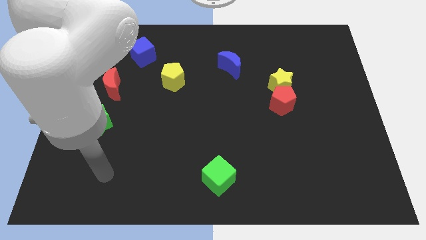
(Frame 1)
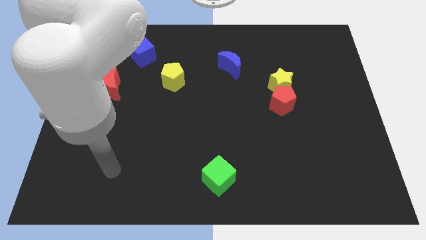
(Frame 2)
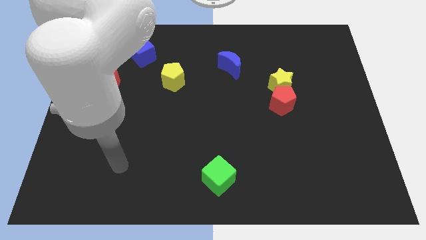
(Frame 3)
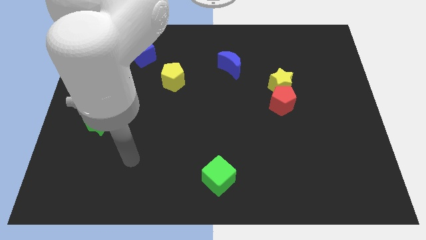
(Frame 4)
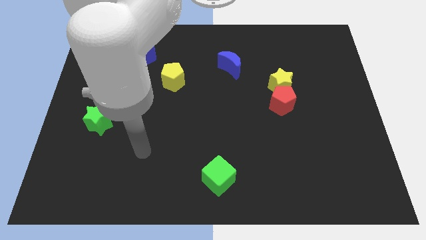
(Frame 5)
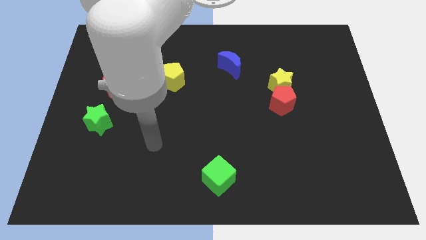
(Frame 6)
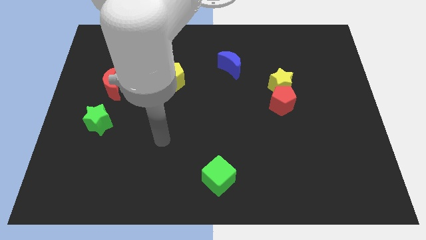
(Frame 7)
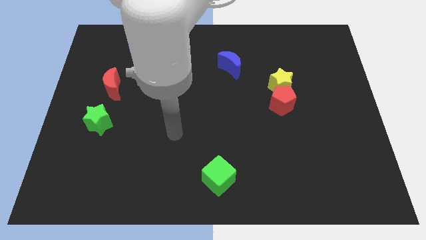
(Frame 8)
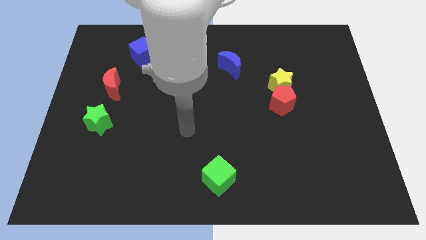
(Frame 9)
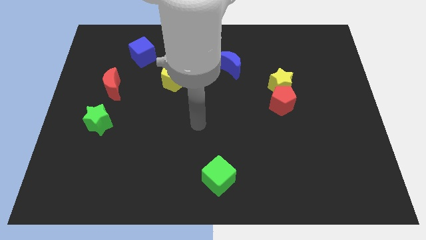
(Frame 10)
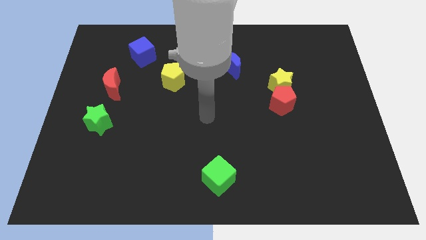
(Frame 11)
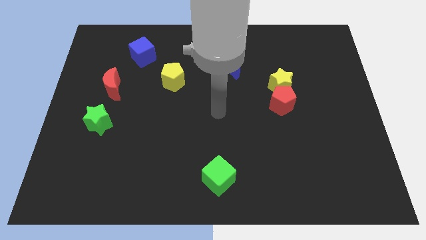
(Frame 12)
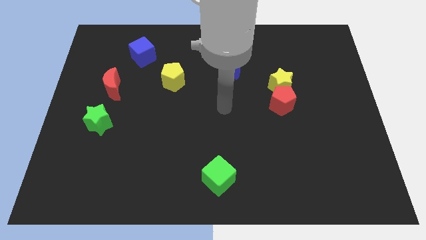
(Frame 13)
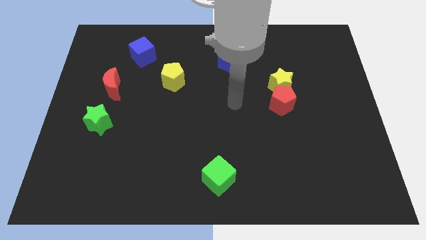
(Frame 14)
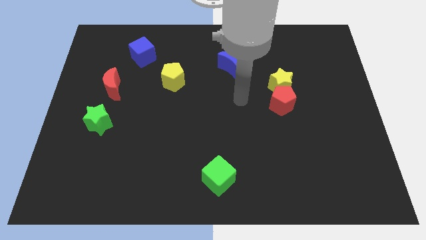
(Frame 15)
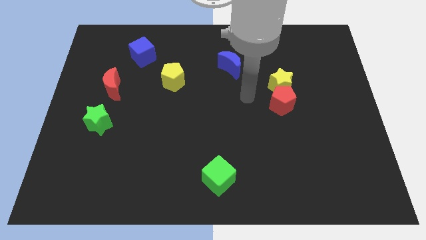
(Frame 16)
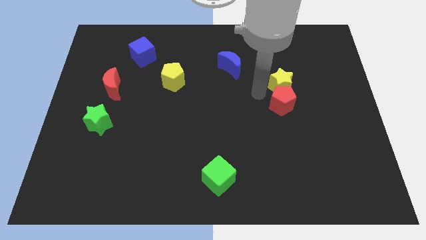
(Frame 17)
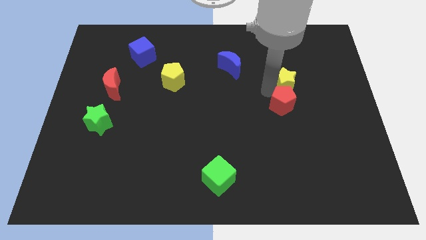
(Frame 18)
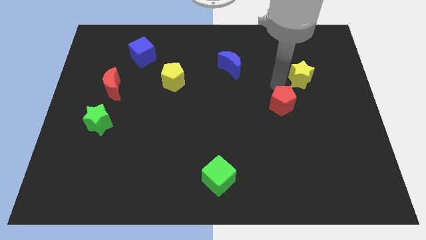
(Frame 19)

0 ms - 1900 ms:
move the red pentagon away from the yellow star

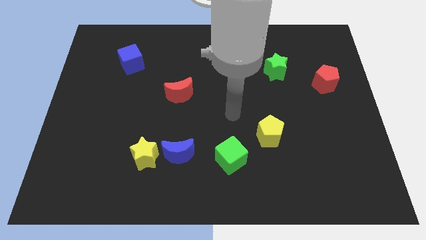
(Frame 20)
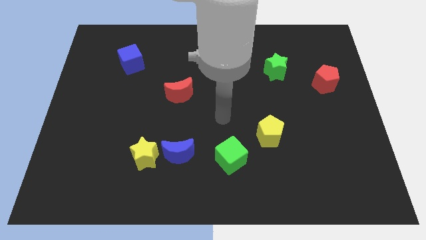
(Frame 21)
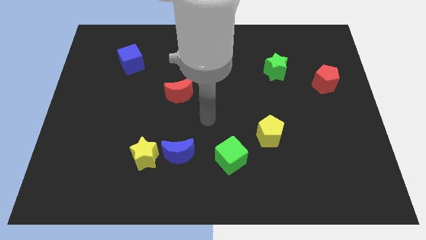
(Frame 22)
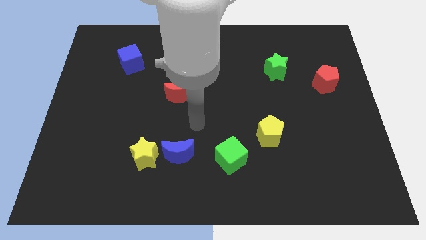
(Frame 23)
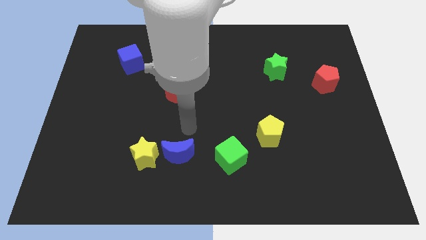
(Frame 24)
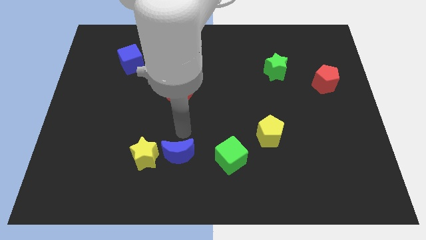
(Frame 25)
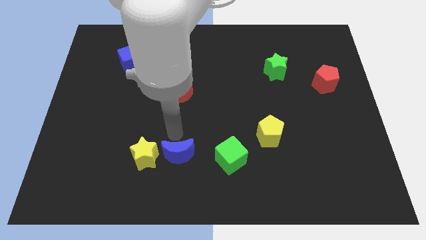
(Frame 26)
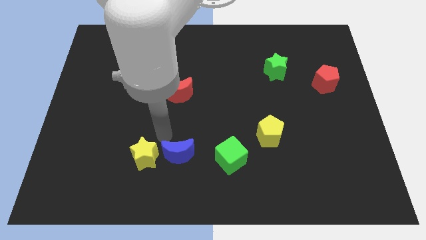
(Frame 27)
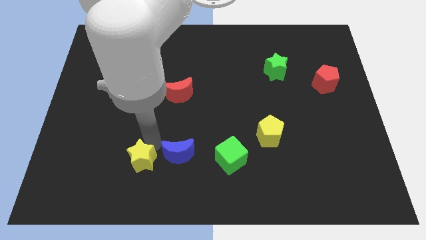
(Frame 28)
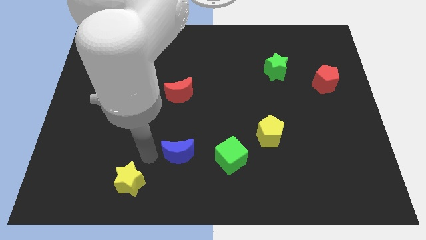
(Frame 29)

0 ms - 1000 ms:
pull the blue moon apart from the yellow star

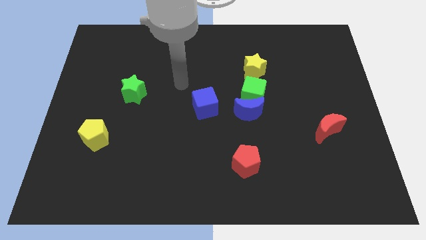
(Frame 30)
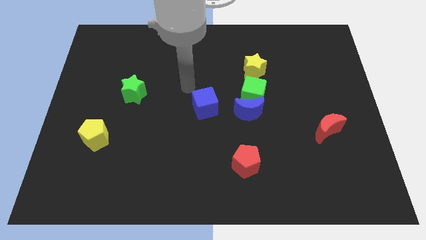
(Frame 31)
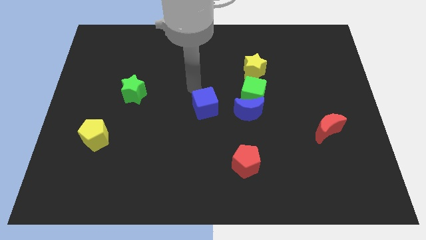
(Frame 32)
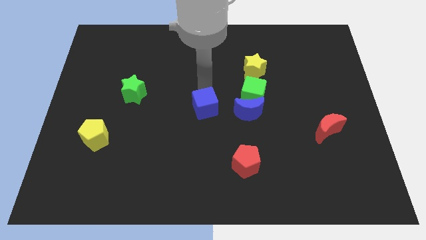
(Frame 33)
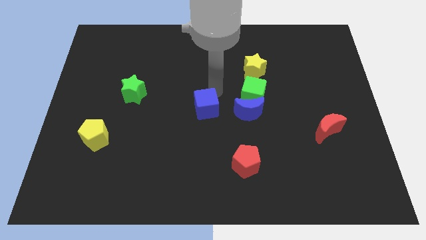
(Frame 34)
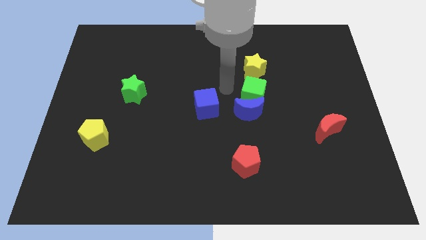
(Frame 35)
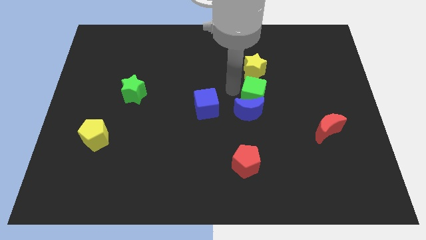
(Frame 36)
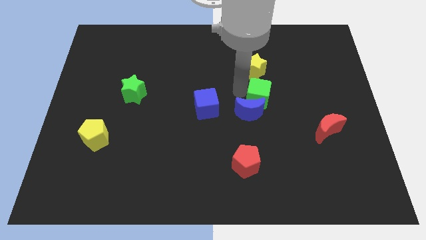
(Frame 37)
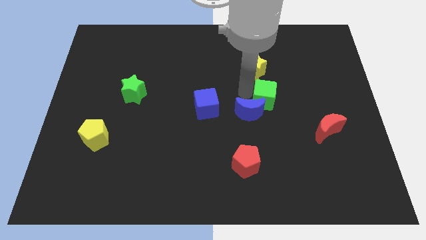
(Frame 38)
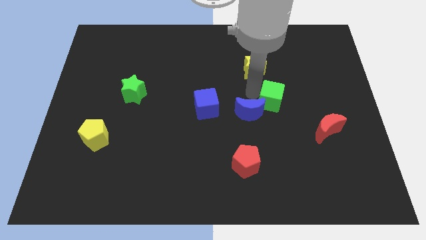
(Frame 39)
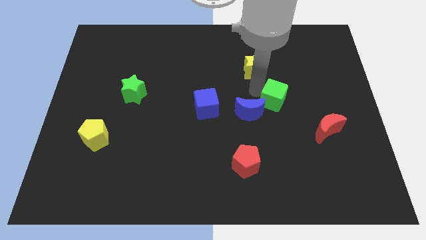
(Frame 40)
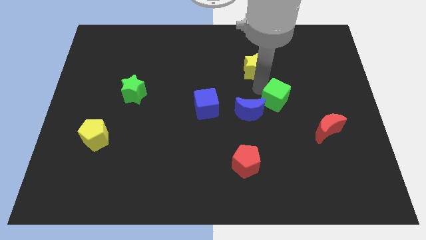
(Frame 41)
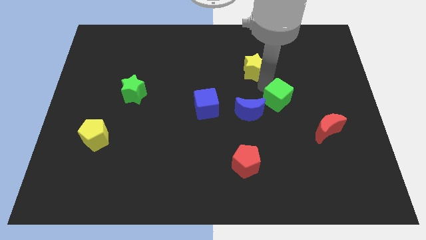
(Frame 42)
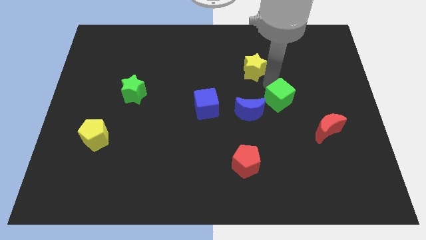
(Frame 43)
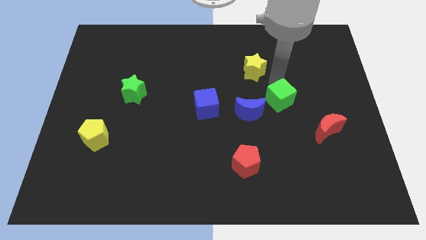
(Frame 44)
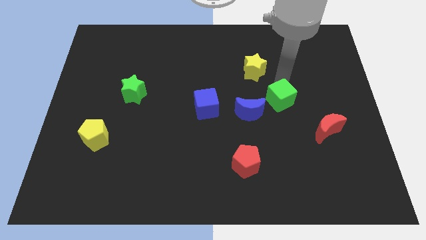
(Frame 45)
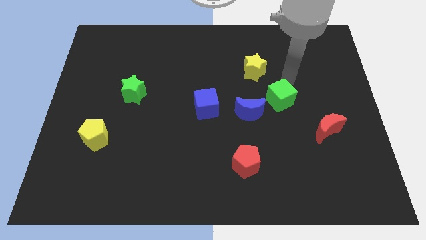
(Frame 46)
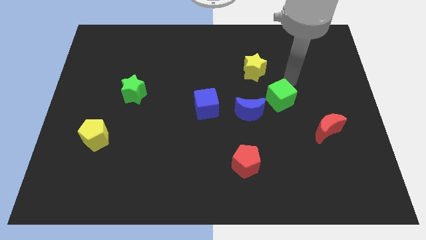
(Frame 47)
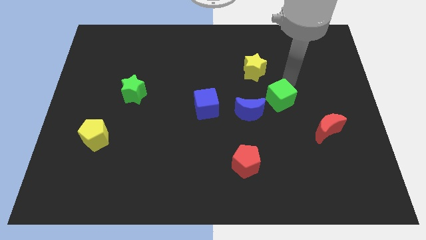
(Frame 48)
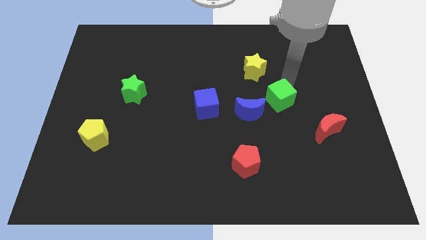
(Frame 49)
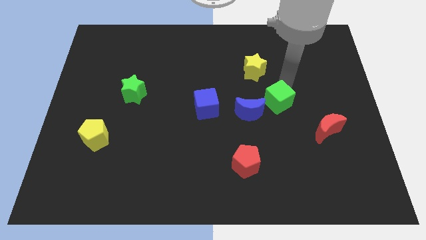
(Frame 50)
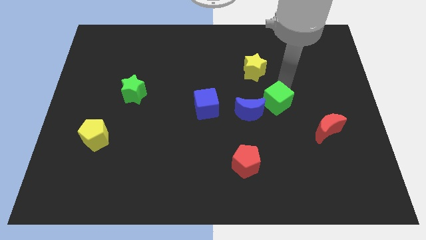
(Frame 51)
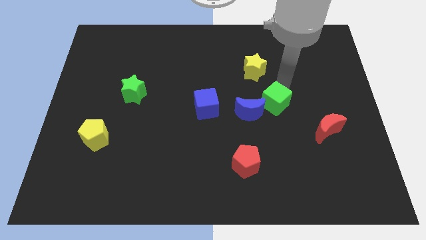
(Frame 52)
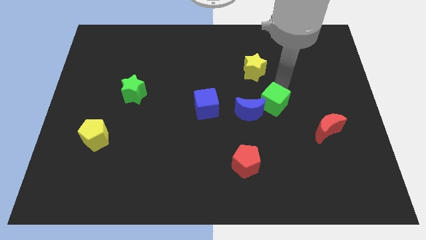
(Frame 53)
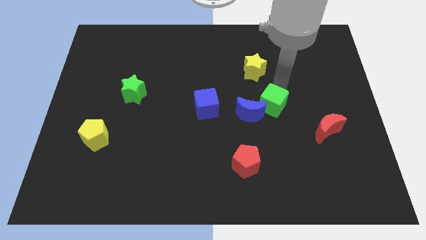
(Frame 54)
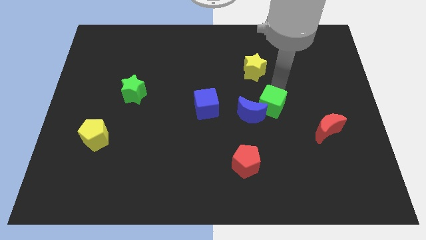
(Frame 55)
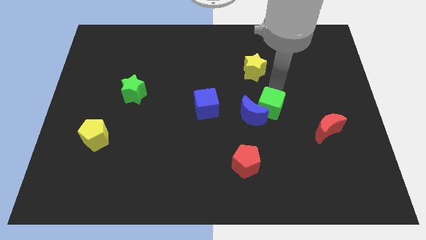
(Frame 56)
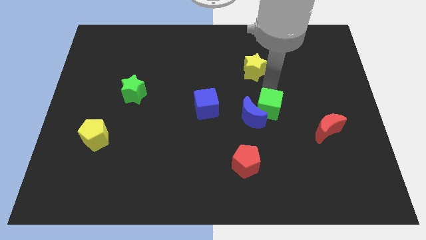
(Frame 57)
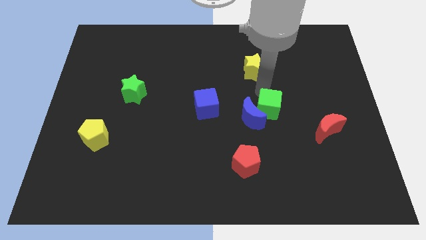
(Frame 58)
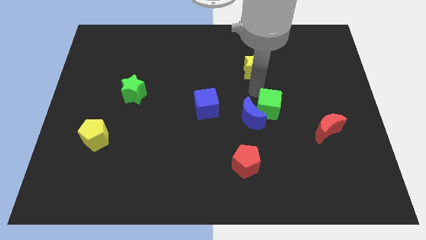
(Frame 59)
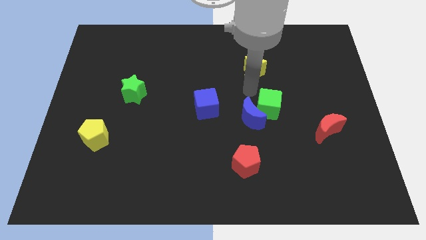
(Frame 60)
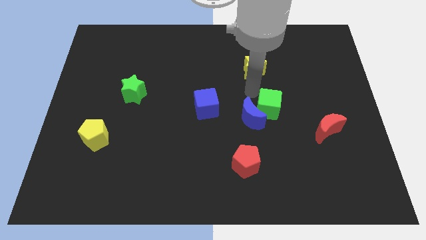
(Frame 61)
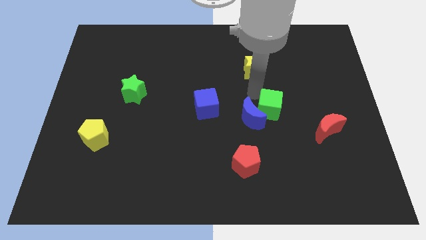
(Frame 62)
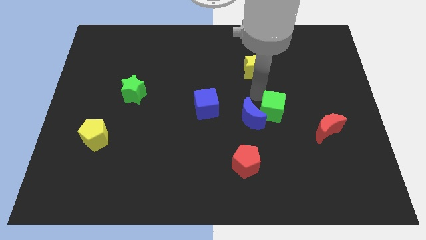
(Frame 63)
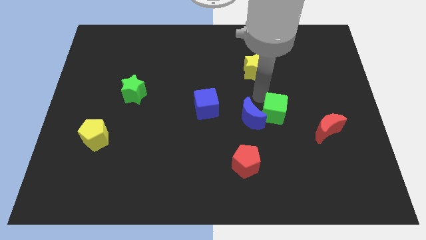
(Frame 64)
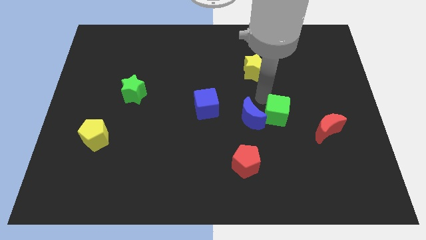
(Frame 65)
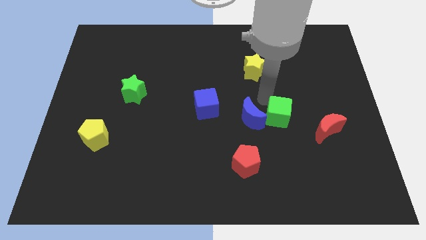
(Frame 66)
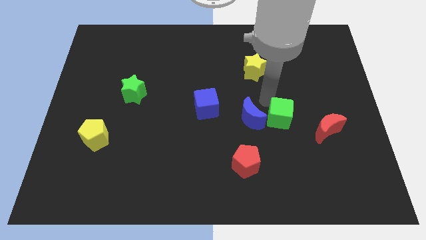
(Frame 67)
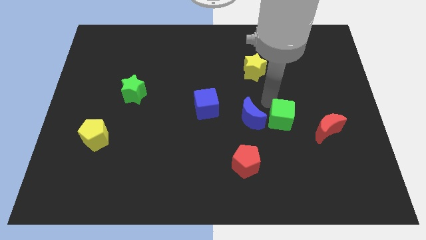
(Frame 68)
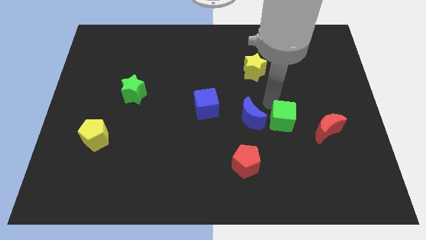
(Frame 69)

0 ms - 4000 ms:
move the green cube away from the blue moon and yellow star

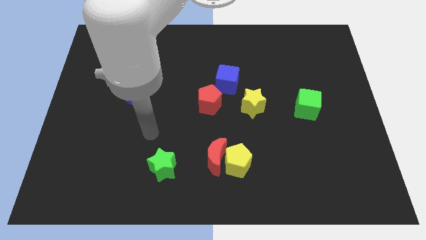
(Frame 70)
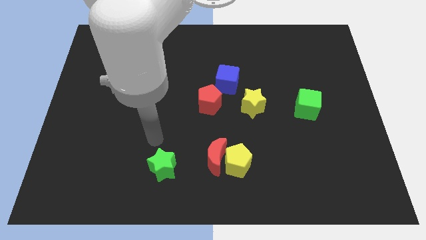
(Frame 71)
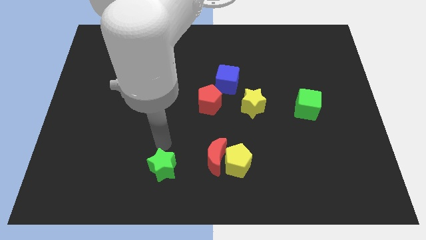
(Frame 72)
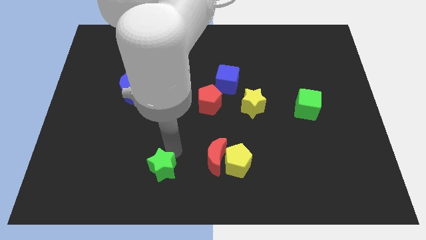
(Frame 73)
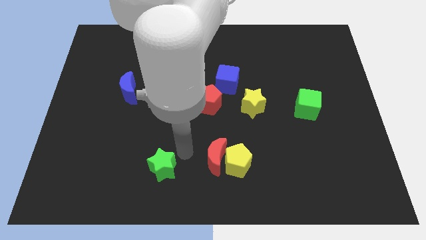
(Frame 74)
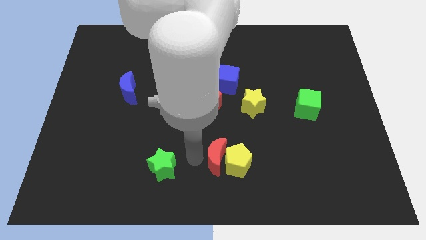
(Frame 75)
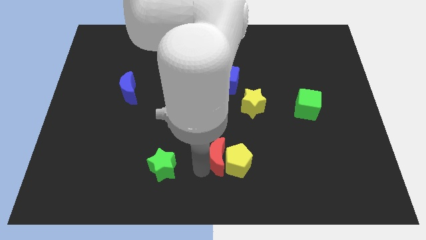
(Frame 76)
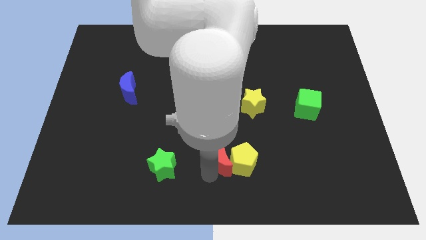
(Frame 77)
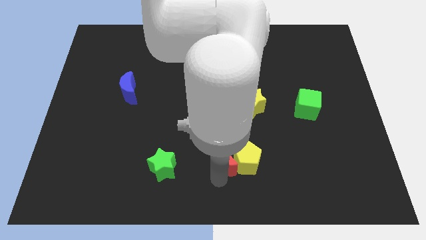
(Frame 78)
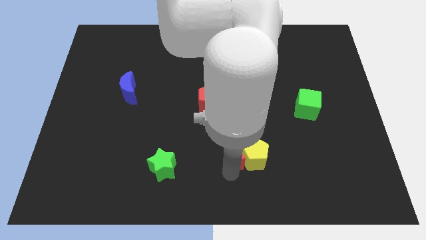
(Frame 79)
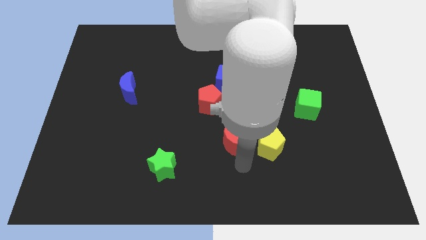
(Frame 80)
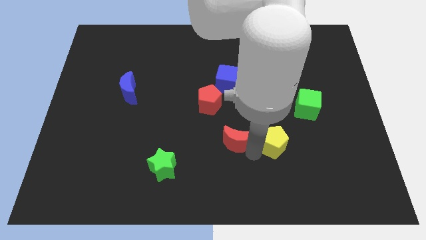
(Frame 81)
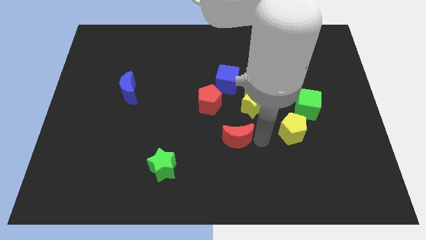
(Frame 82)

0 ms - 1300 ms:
separate the red moon from the yellow pentagon

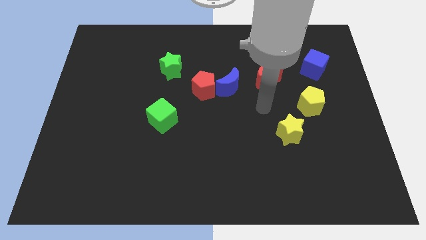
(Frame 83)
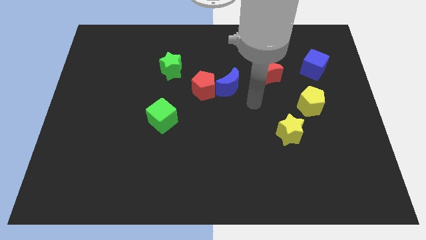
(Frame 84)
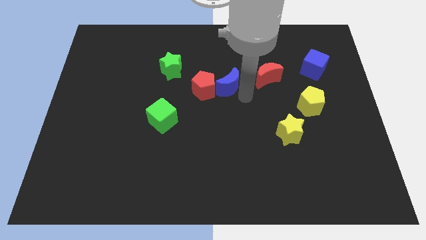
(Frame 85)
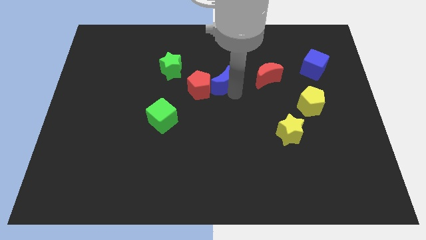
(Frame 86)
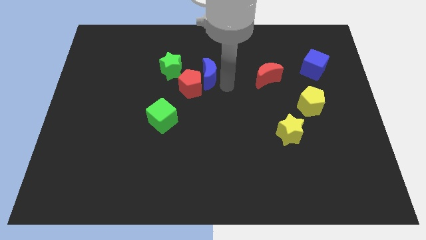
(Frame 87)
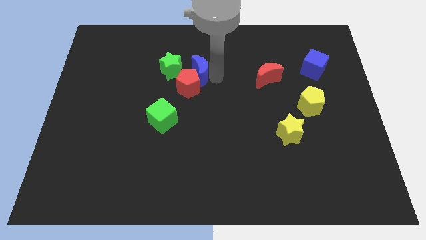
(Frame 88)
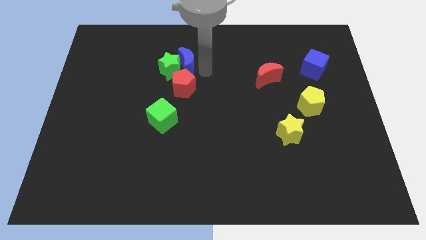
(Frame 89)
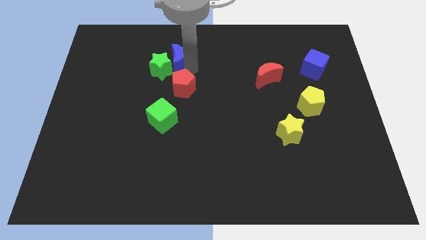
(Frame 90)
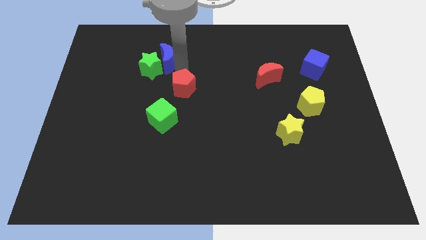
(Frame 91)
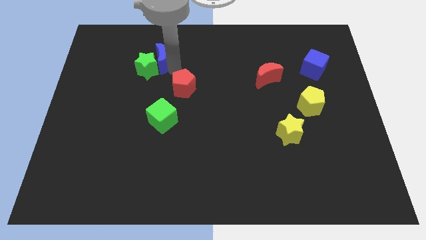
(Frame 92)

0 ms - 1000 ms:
move the red pentagon away from the blue moon

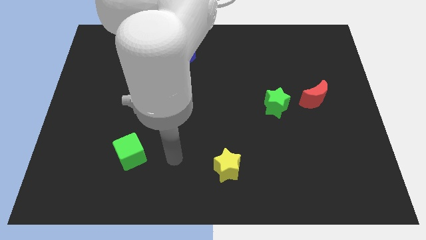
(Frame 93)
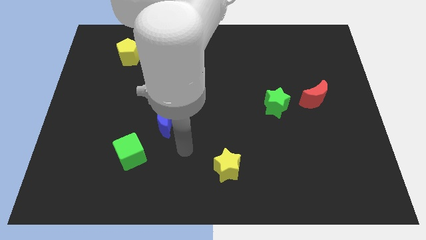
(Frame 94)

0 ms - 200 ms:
pull the red pentagon apart from the blue cube
